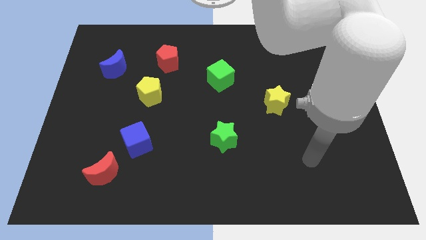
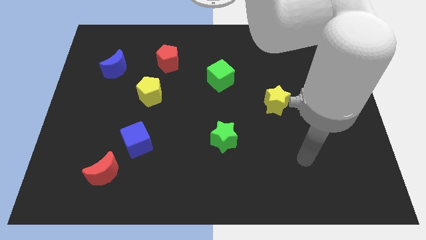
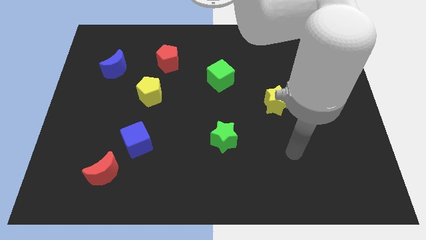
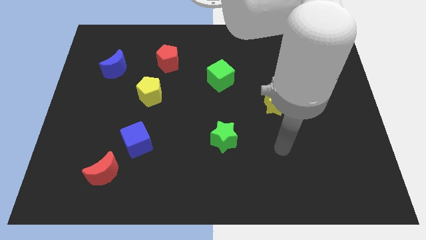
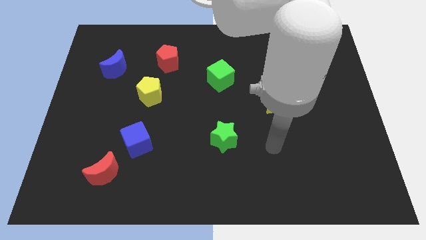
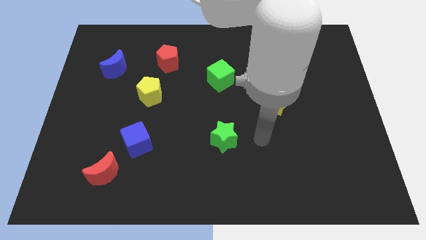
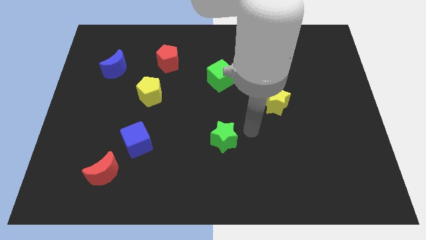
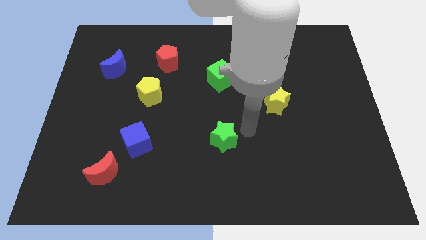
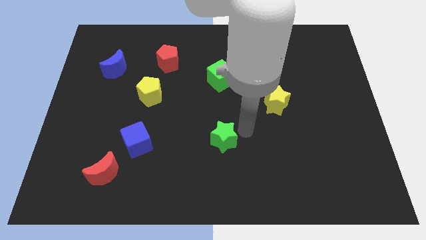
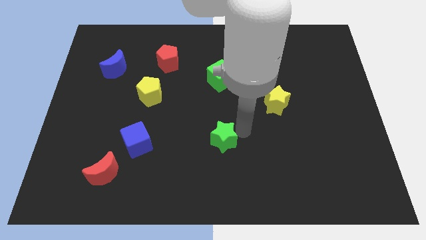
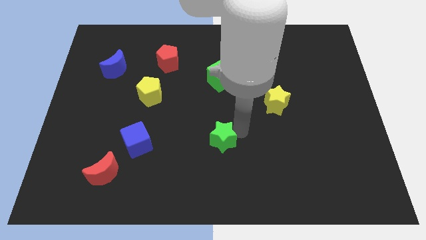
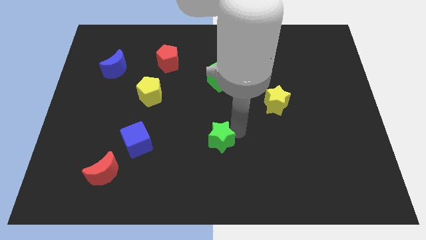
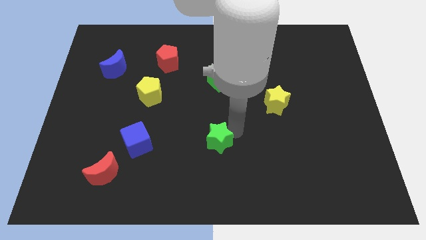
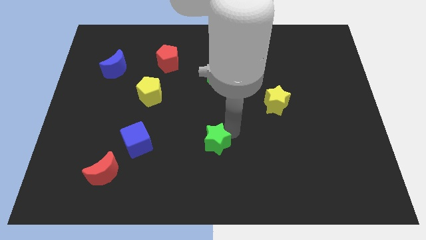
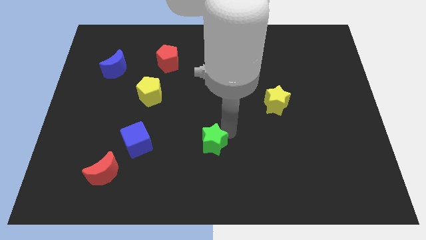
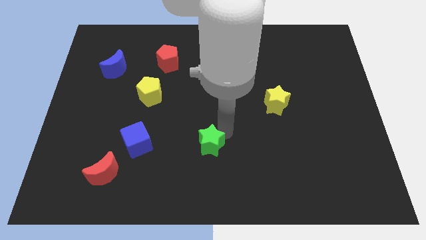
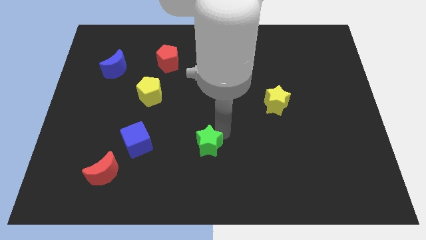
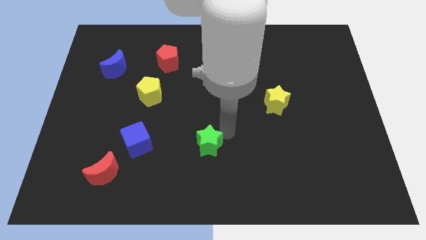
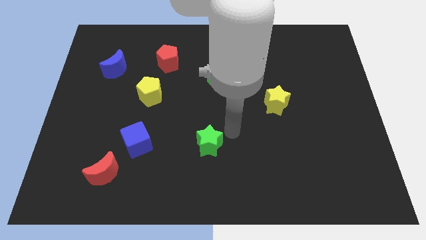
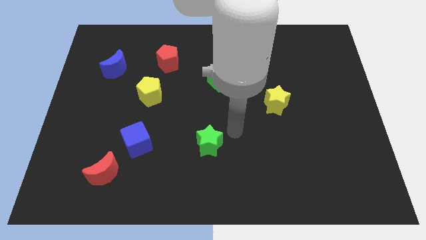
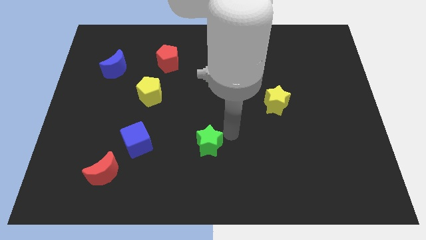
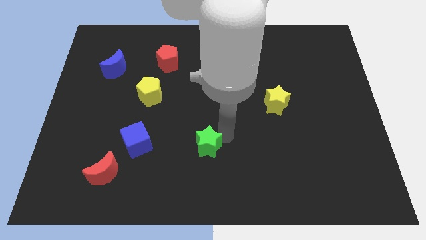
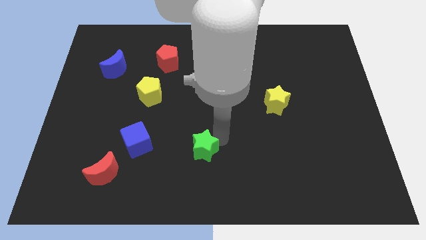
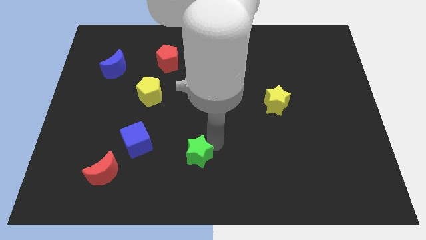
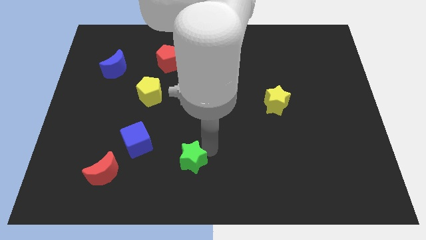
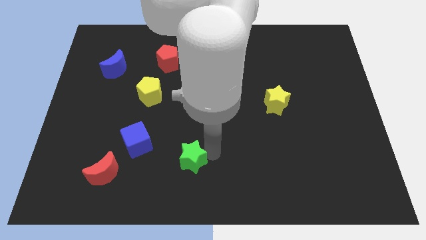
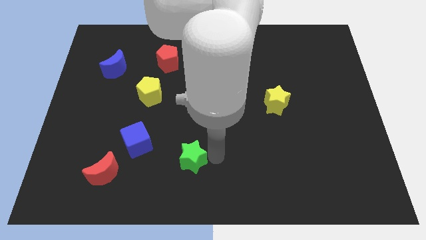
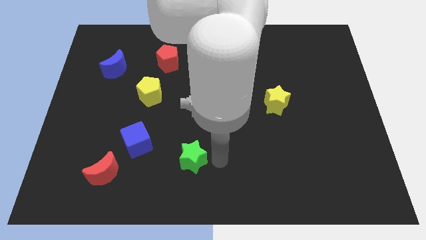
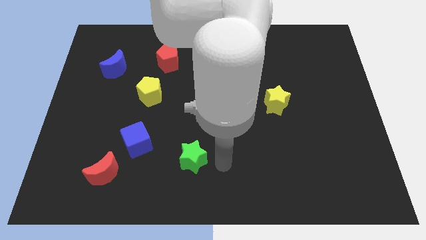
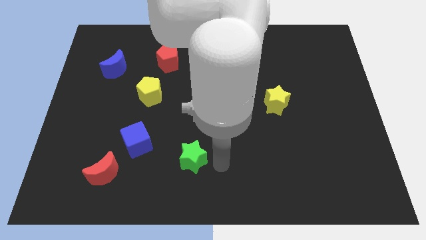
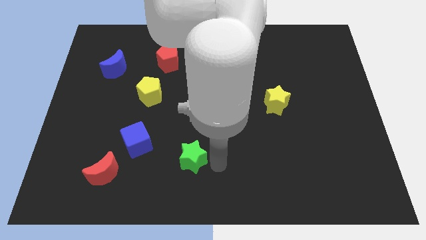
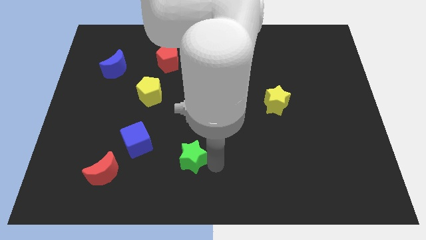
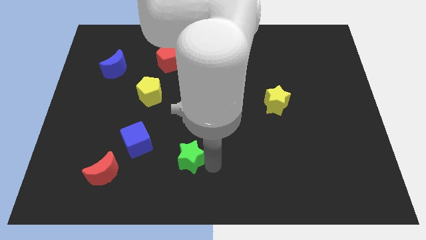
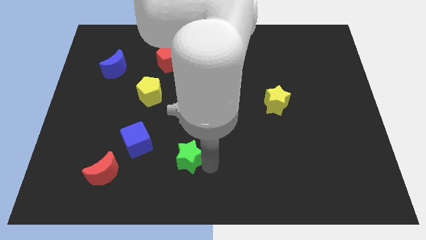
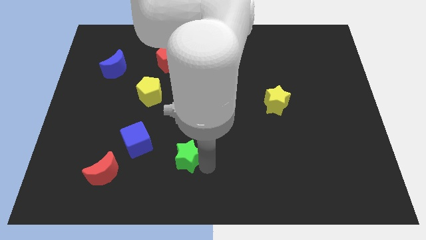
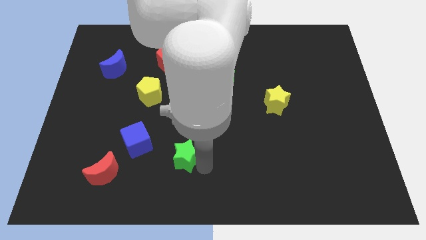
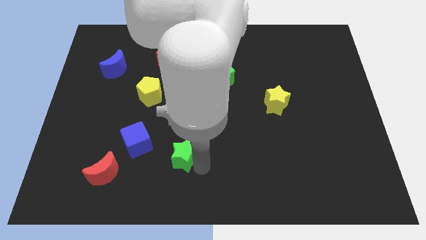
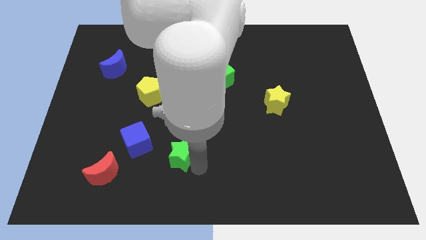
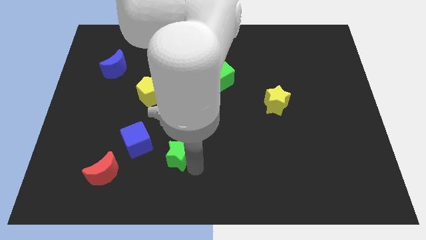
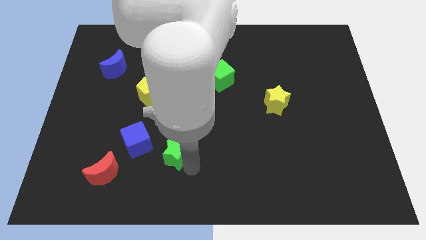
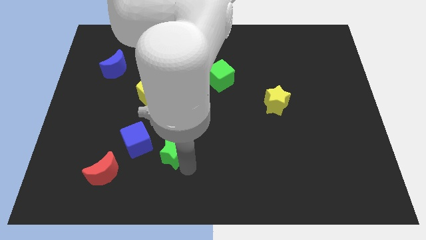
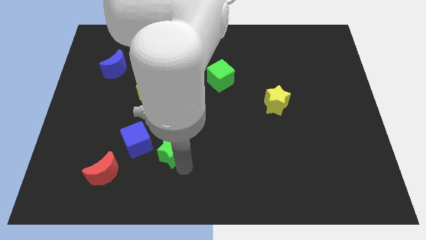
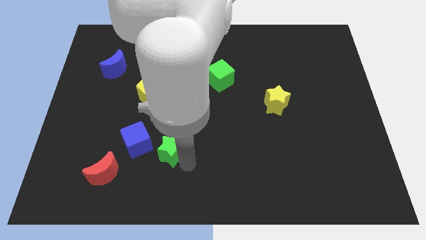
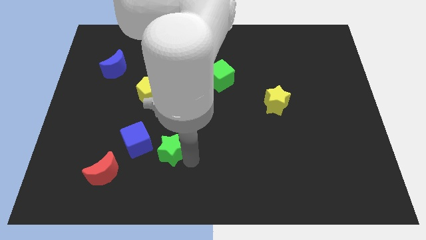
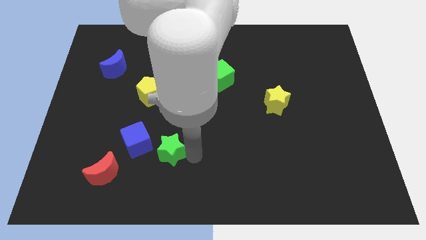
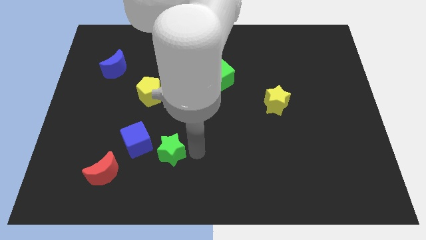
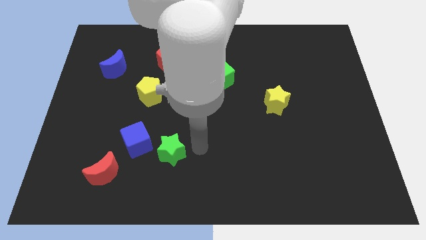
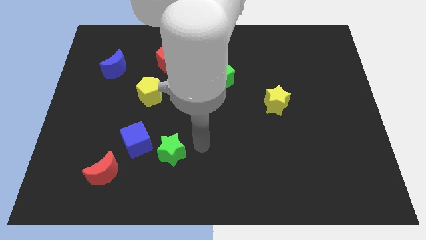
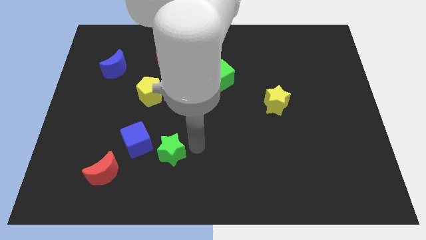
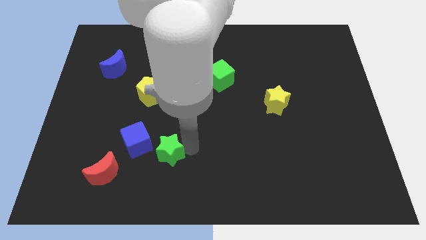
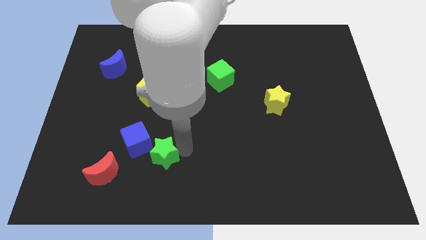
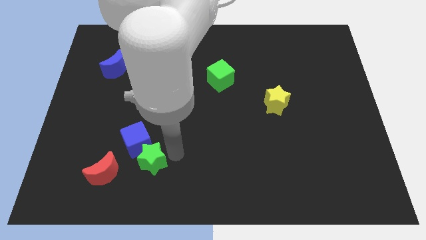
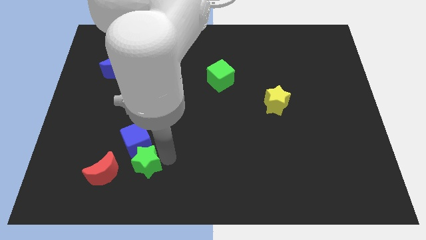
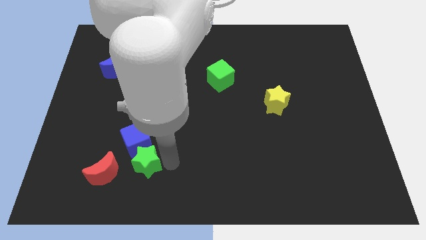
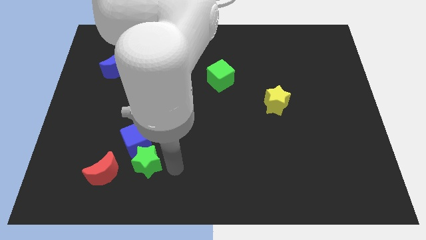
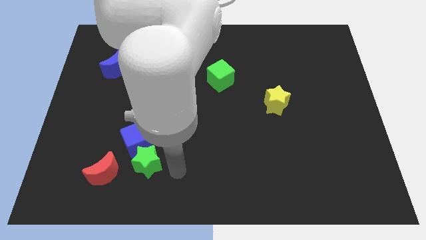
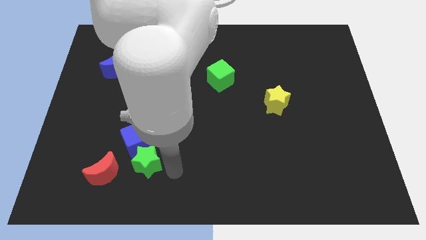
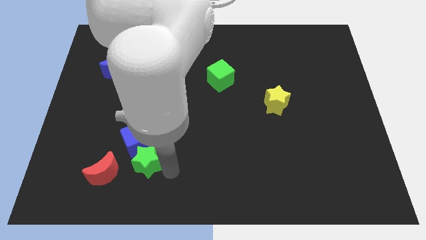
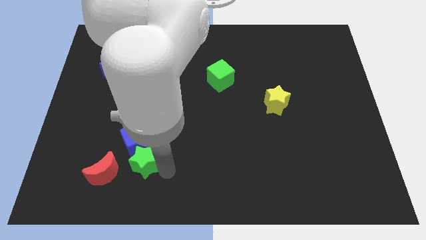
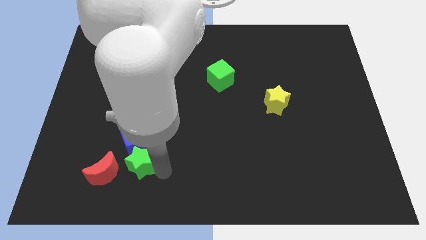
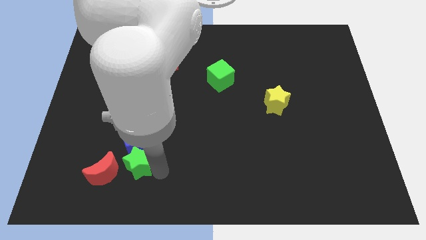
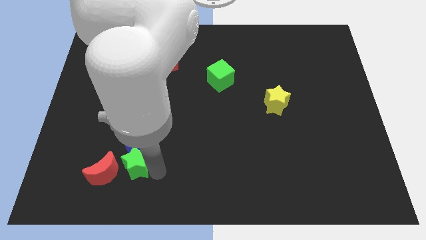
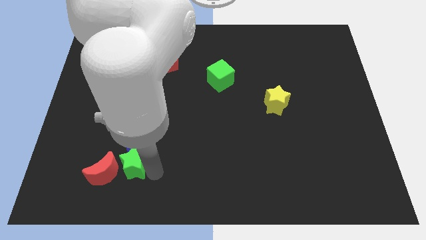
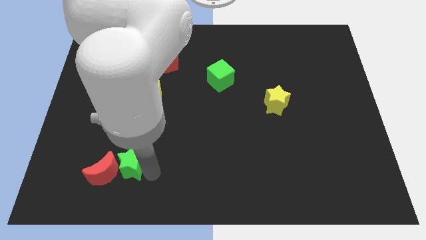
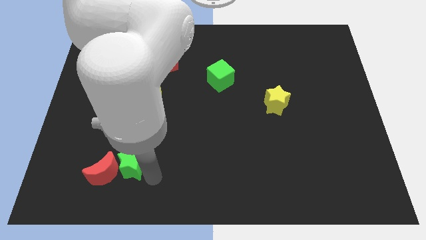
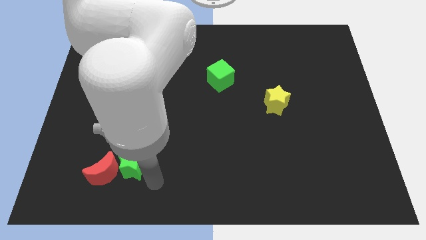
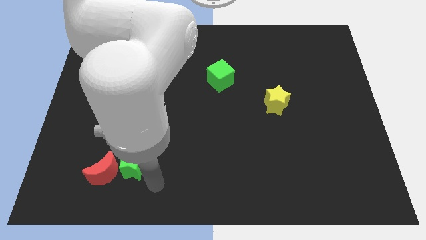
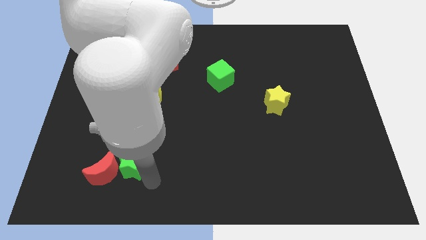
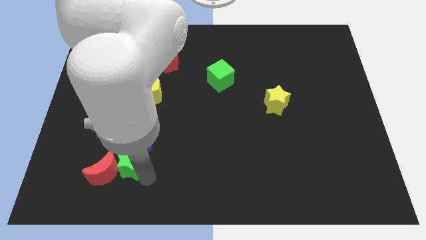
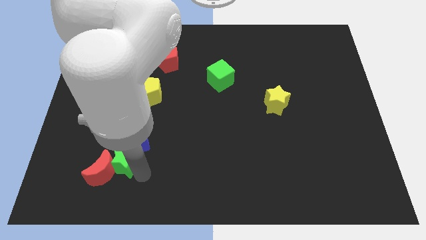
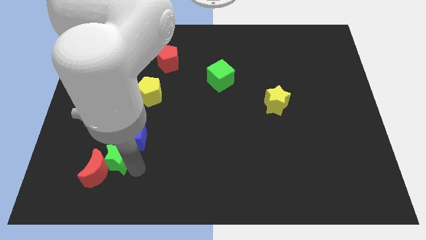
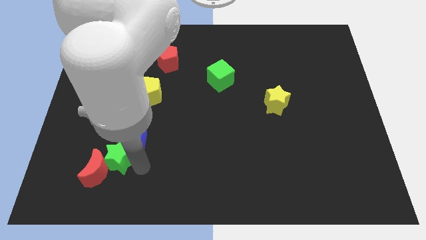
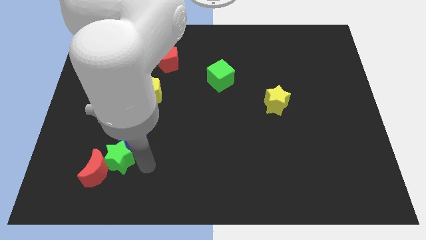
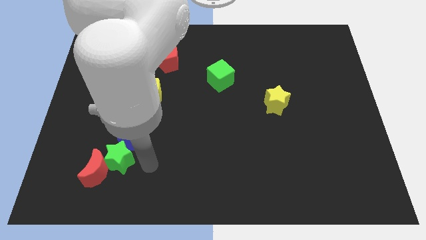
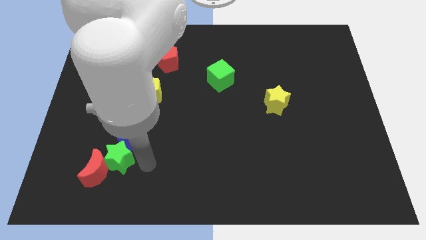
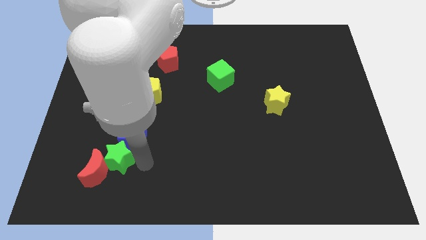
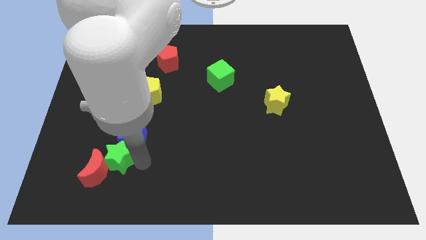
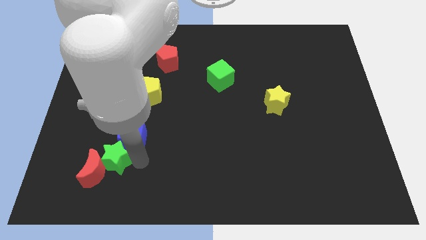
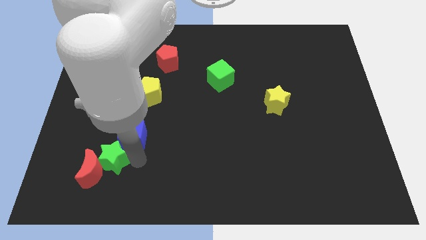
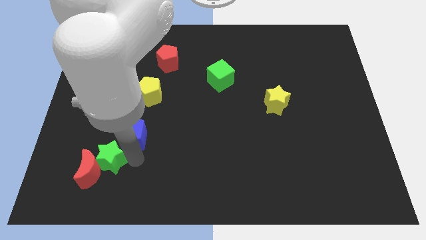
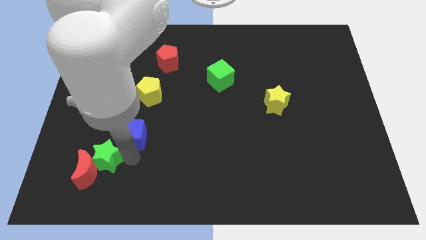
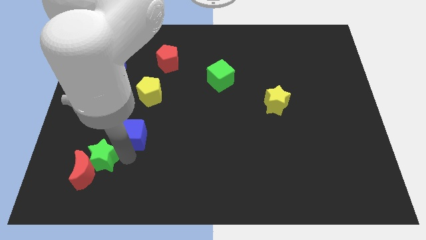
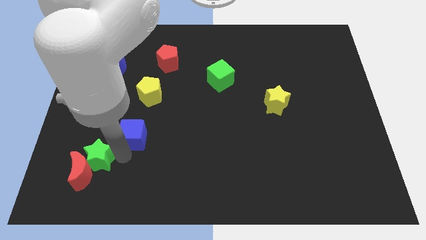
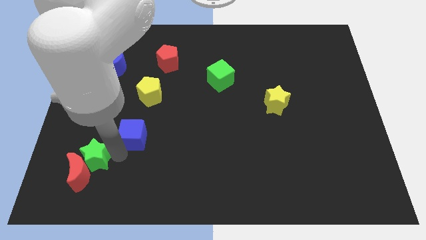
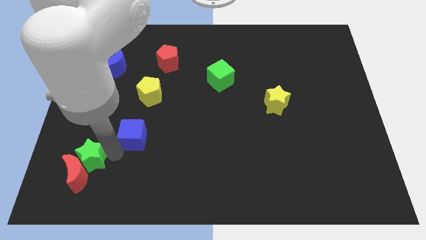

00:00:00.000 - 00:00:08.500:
slide the green star diagonally up and to the left of the red moon
